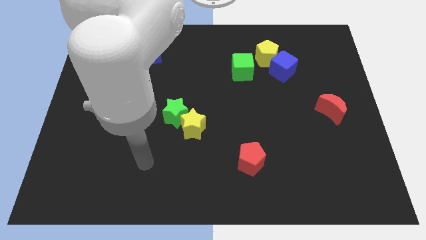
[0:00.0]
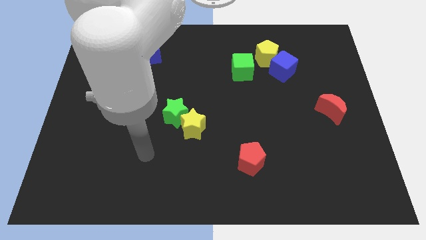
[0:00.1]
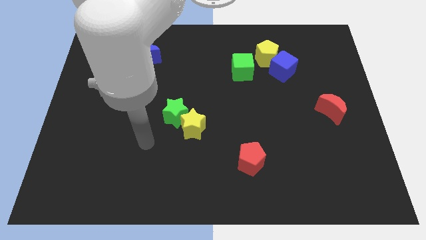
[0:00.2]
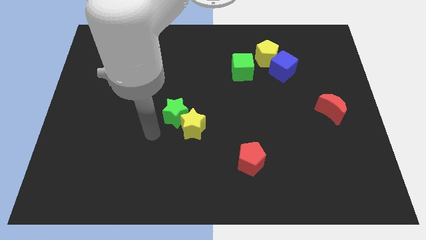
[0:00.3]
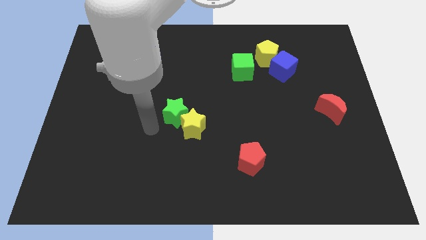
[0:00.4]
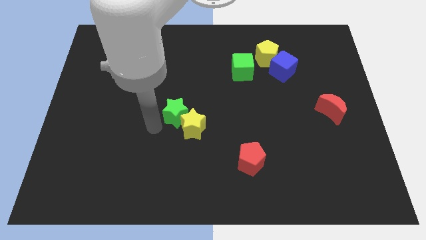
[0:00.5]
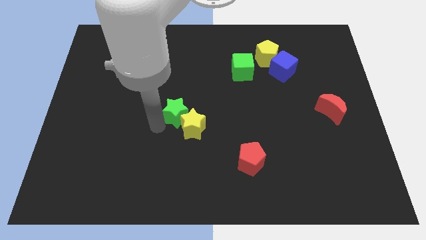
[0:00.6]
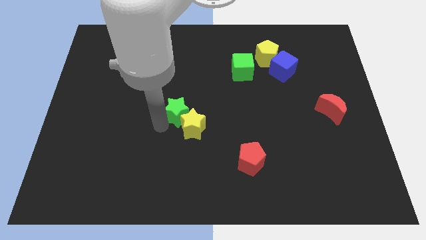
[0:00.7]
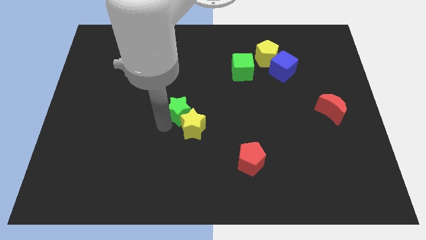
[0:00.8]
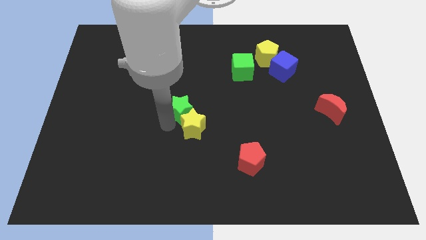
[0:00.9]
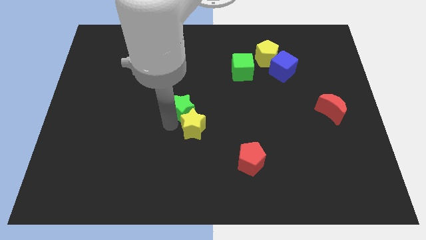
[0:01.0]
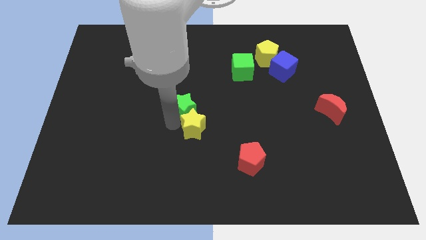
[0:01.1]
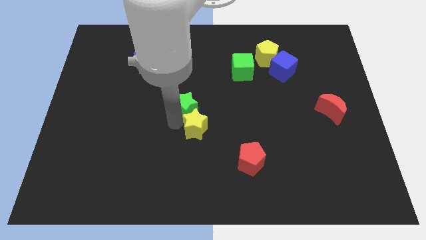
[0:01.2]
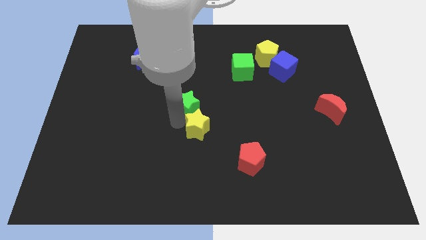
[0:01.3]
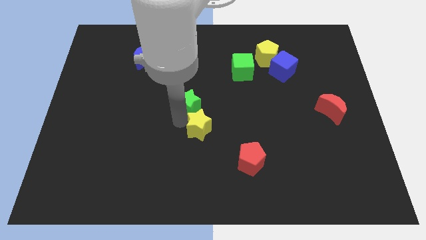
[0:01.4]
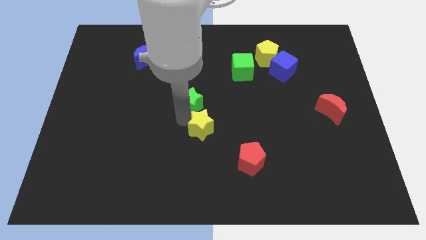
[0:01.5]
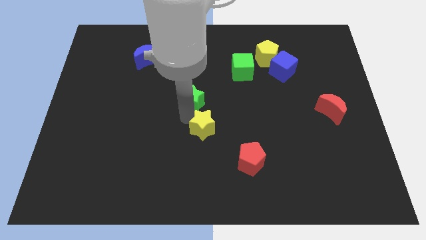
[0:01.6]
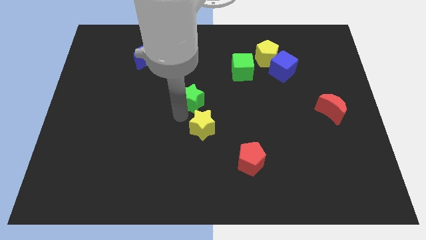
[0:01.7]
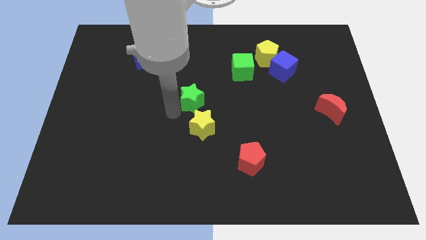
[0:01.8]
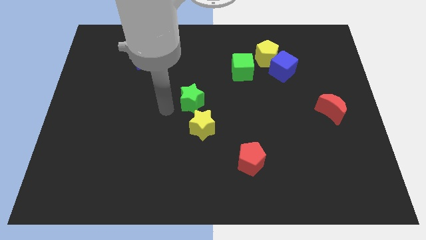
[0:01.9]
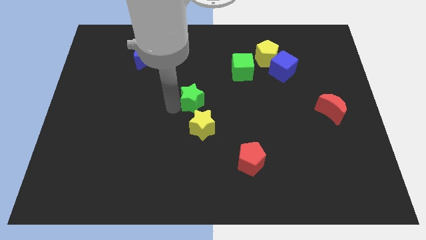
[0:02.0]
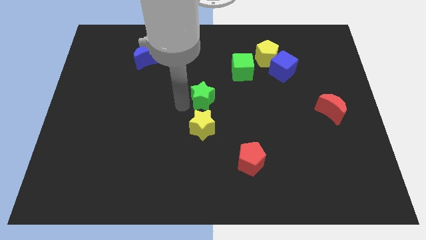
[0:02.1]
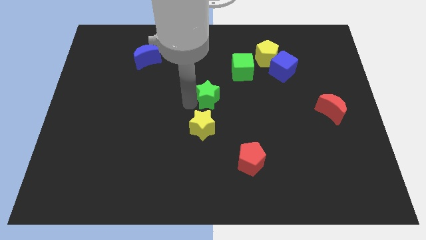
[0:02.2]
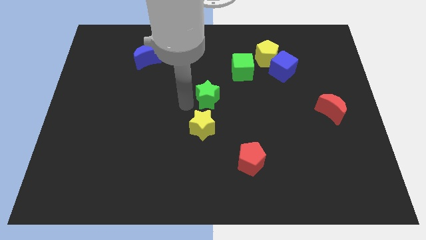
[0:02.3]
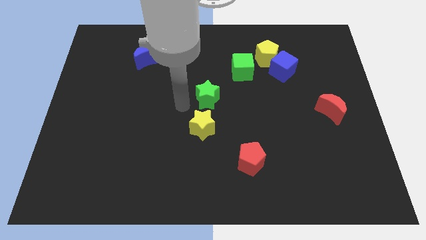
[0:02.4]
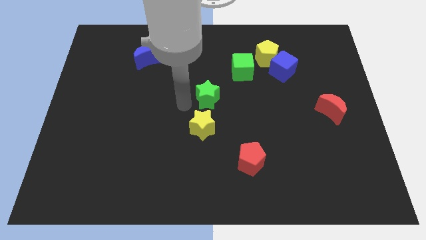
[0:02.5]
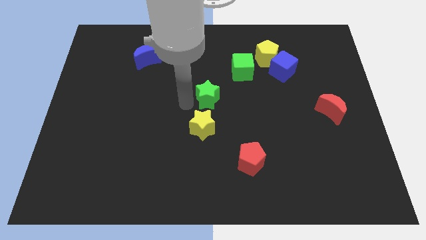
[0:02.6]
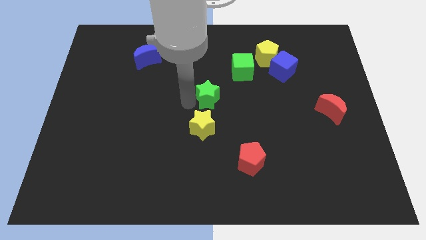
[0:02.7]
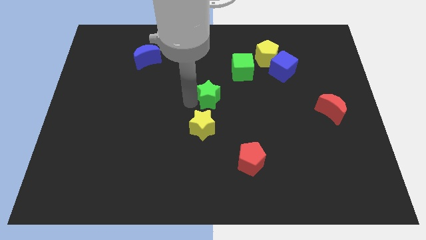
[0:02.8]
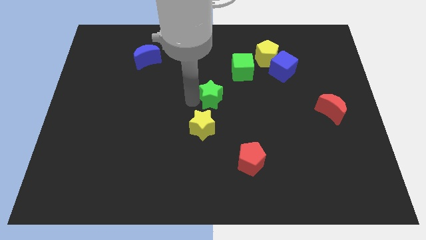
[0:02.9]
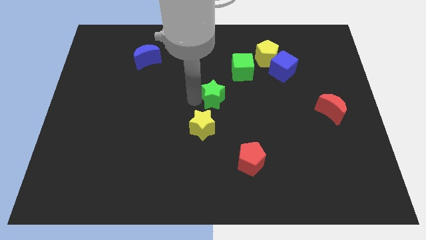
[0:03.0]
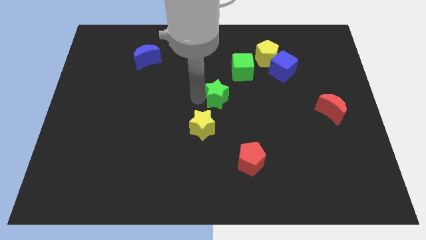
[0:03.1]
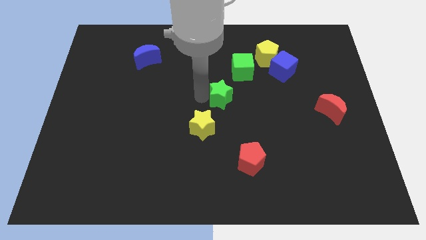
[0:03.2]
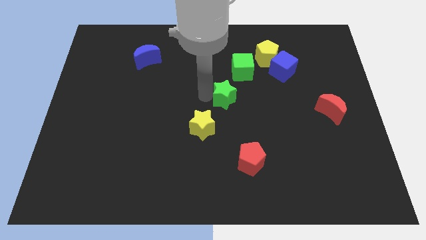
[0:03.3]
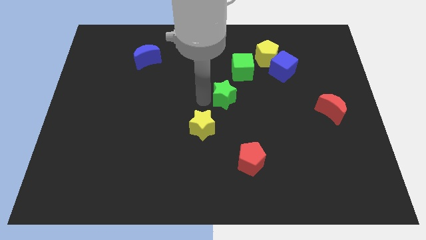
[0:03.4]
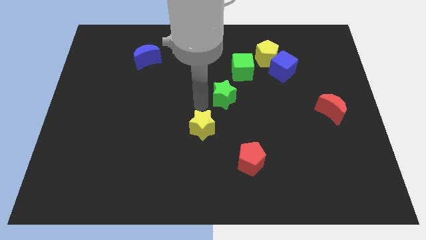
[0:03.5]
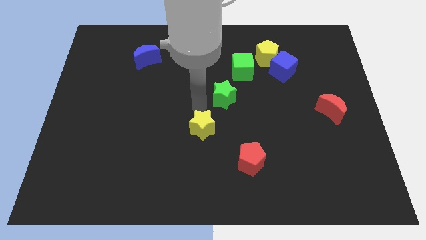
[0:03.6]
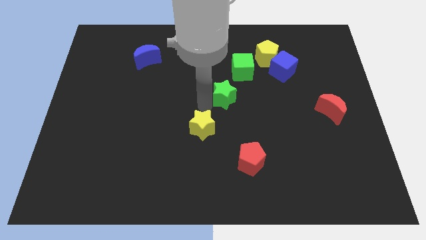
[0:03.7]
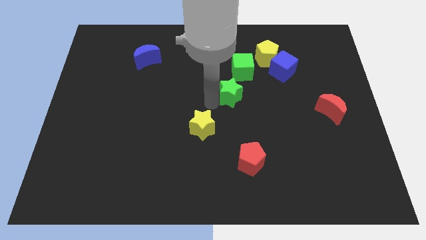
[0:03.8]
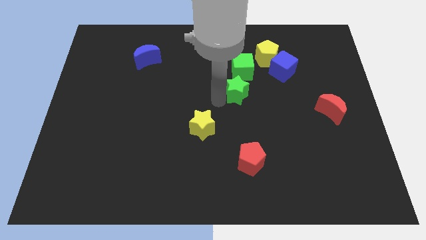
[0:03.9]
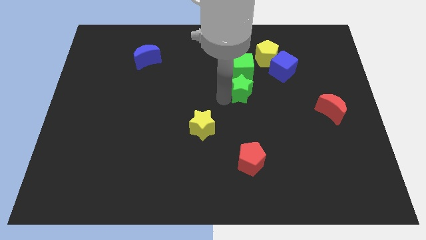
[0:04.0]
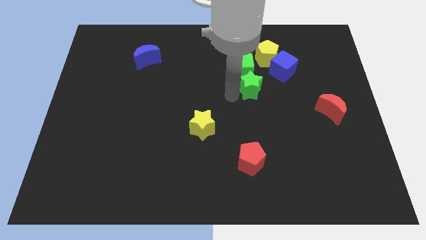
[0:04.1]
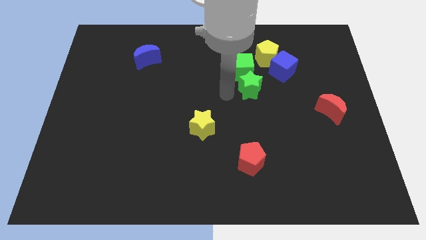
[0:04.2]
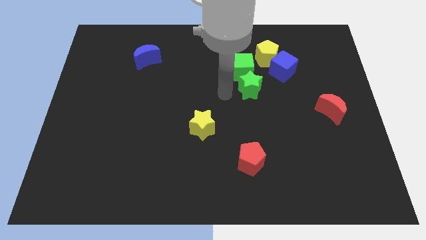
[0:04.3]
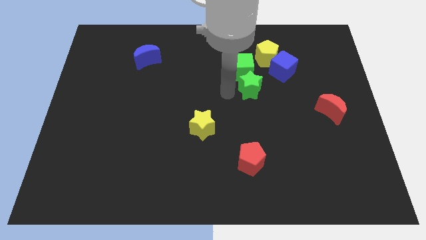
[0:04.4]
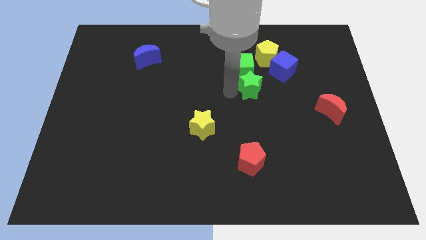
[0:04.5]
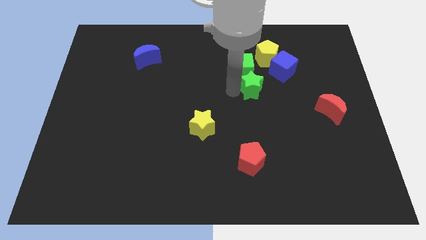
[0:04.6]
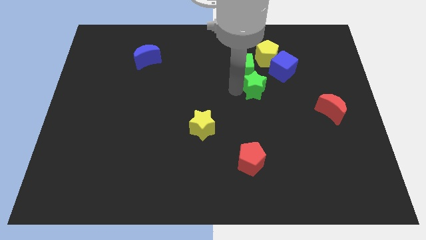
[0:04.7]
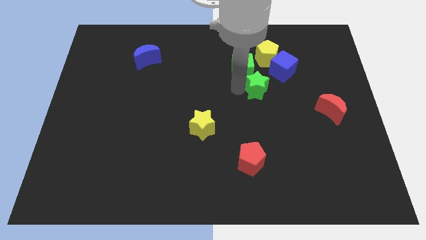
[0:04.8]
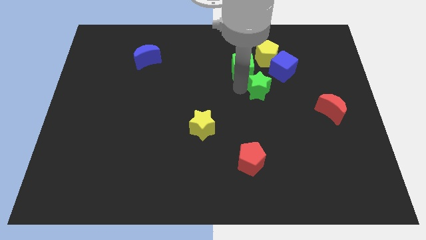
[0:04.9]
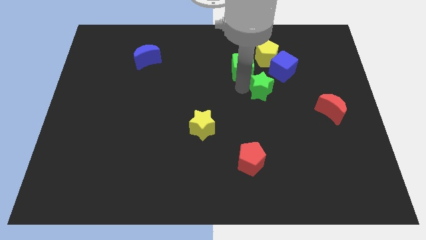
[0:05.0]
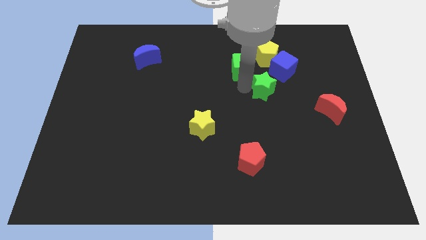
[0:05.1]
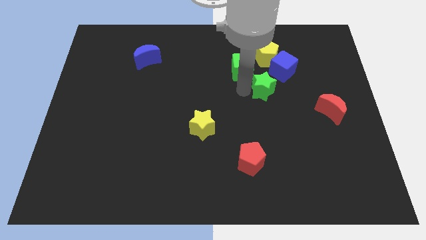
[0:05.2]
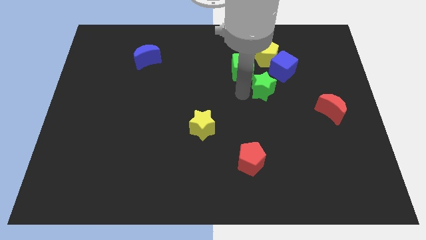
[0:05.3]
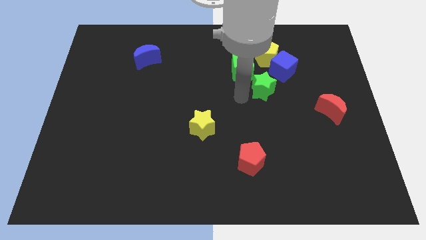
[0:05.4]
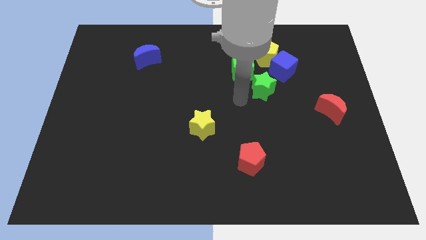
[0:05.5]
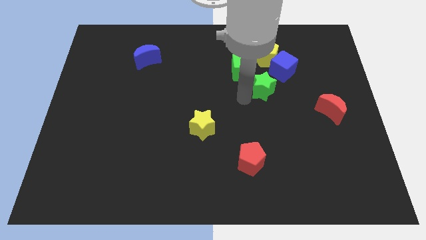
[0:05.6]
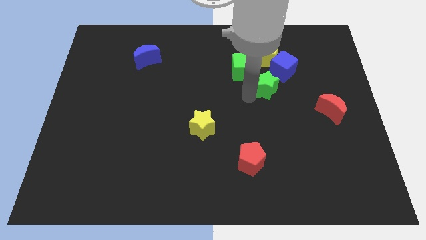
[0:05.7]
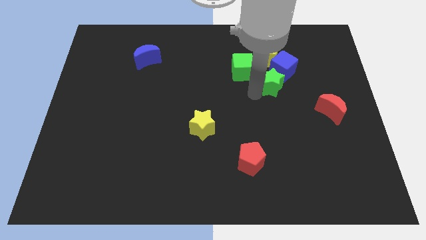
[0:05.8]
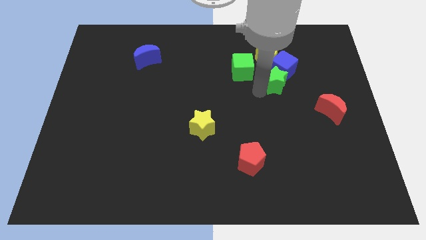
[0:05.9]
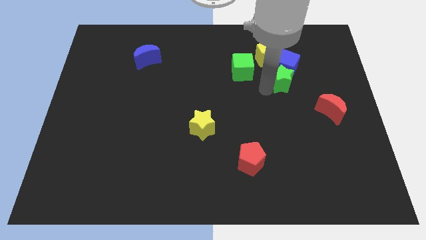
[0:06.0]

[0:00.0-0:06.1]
push the green star to the bottom right side of the yellow pentagon
